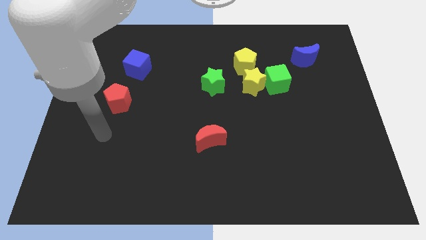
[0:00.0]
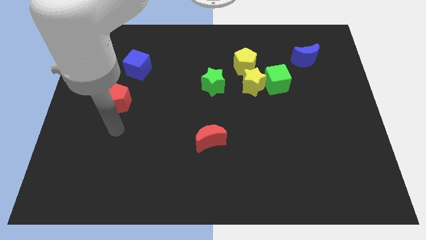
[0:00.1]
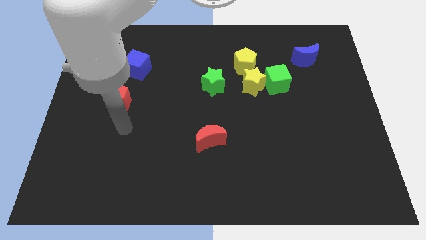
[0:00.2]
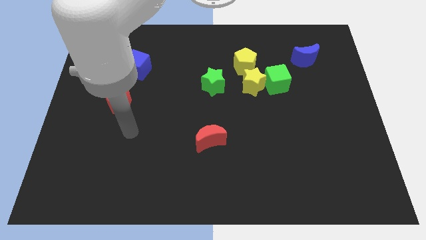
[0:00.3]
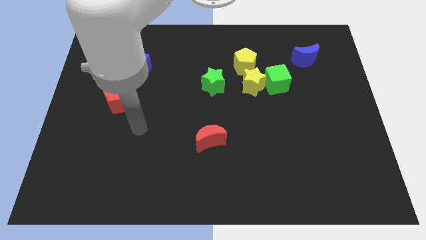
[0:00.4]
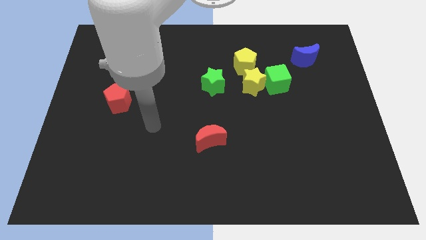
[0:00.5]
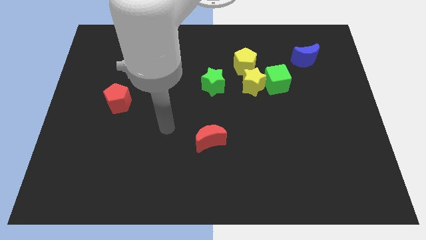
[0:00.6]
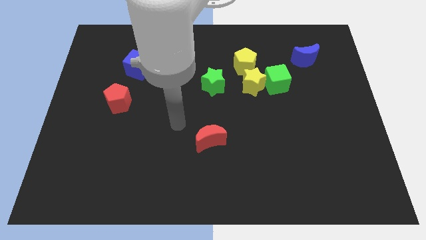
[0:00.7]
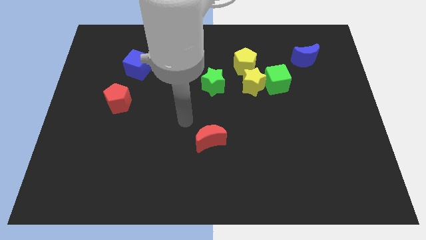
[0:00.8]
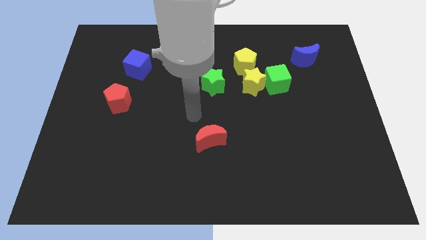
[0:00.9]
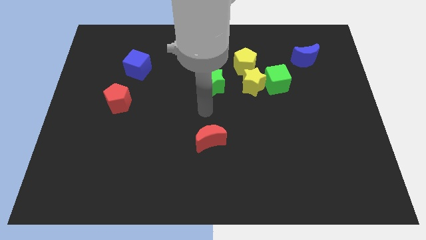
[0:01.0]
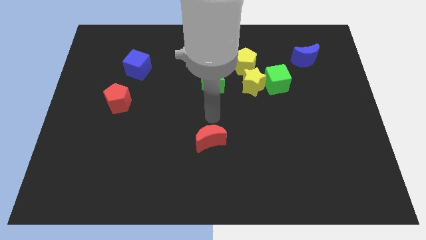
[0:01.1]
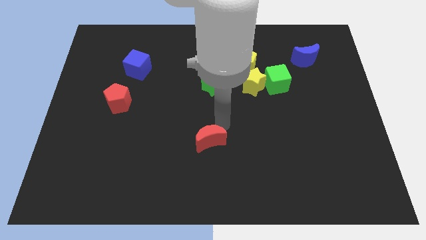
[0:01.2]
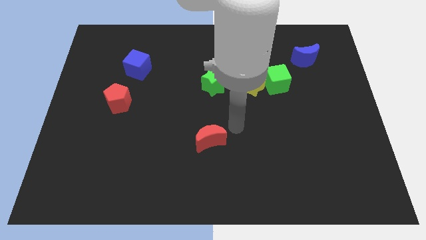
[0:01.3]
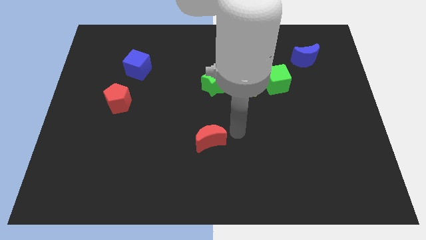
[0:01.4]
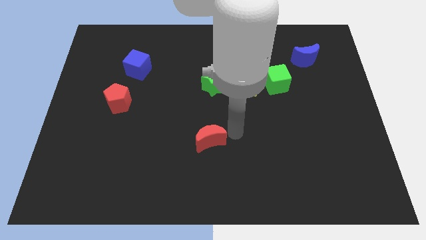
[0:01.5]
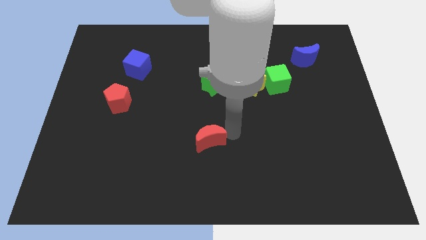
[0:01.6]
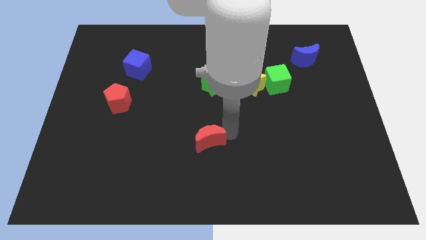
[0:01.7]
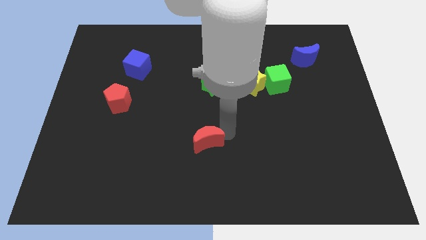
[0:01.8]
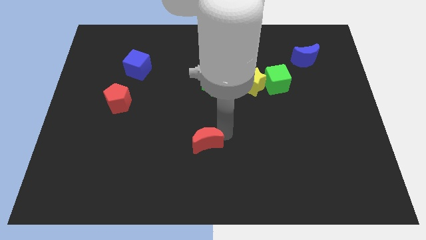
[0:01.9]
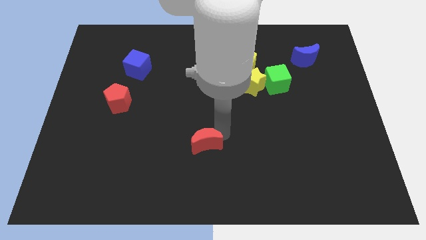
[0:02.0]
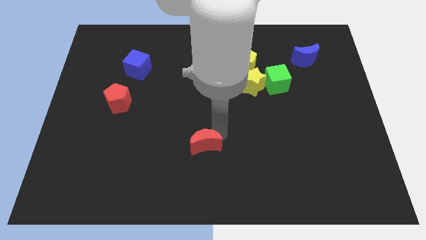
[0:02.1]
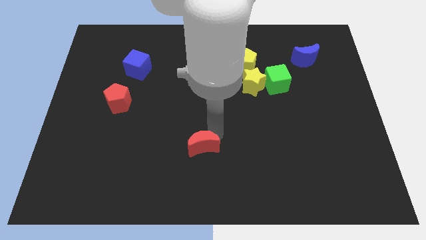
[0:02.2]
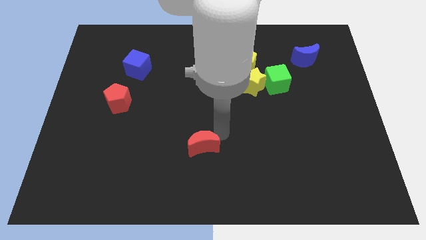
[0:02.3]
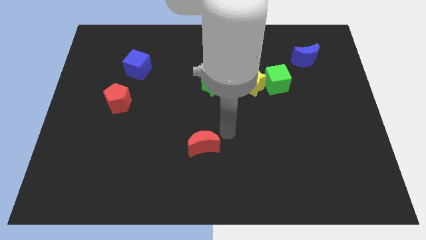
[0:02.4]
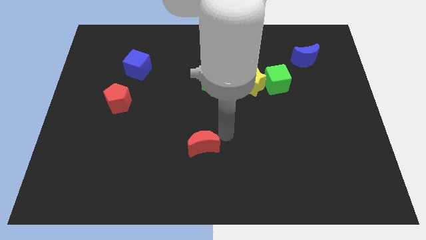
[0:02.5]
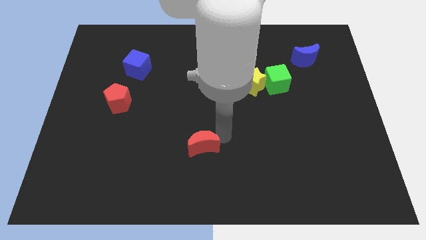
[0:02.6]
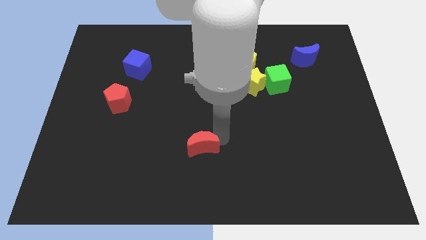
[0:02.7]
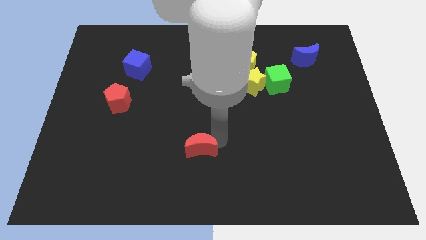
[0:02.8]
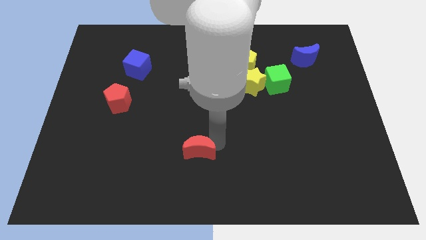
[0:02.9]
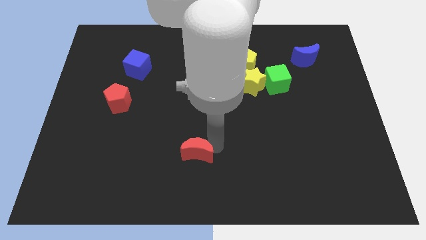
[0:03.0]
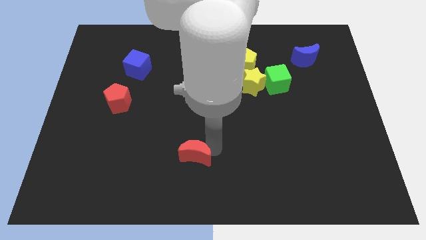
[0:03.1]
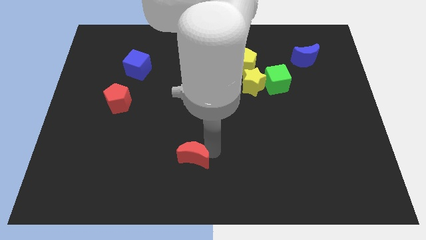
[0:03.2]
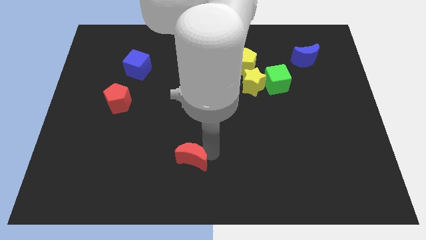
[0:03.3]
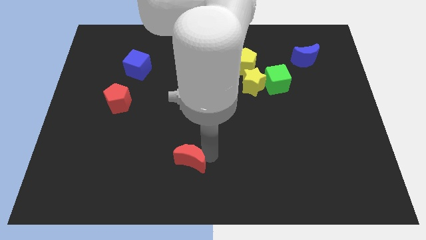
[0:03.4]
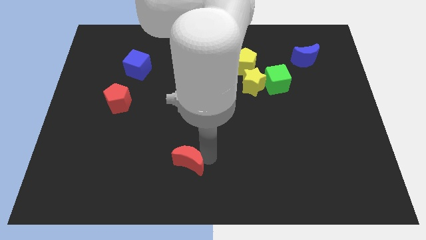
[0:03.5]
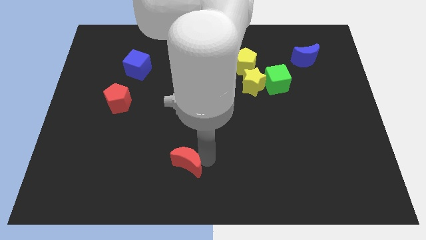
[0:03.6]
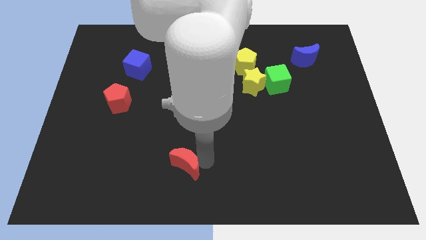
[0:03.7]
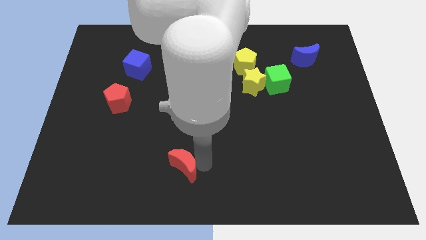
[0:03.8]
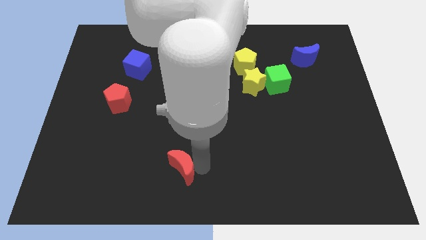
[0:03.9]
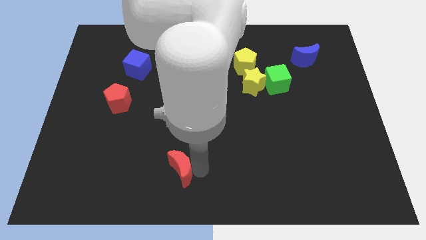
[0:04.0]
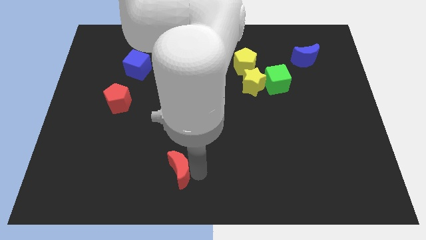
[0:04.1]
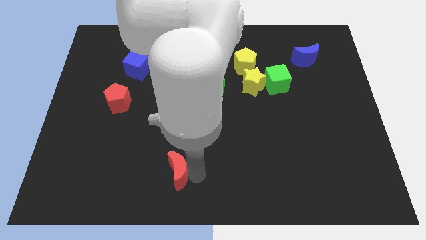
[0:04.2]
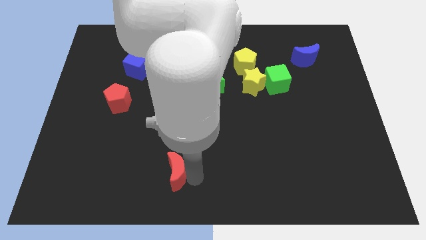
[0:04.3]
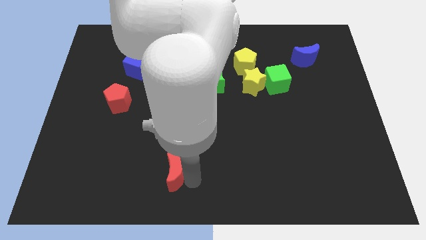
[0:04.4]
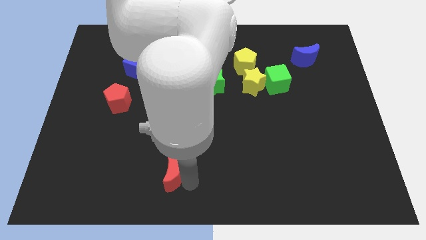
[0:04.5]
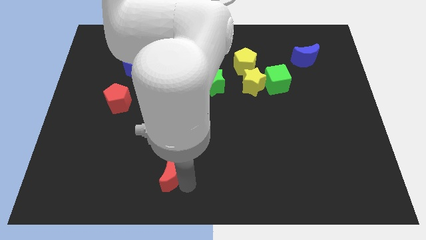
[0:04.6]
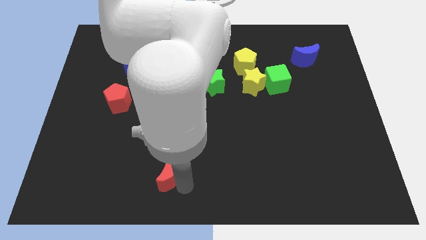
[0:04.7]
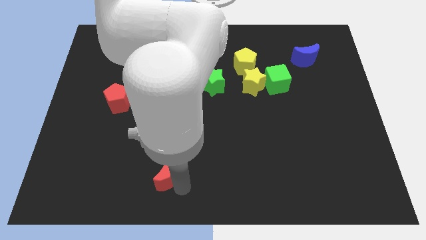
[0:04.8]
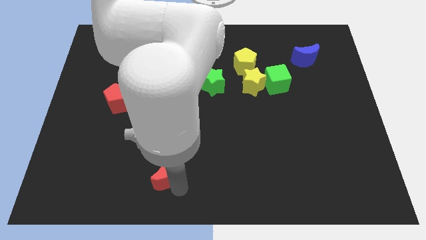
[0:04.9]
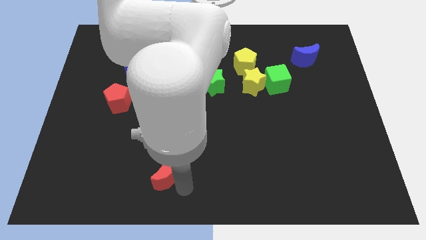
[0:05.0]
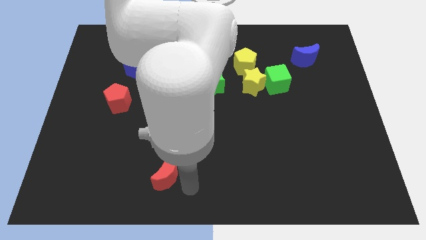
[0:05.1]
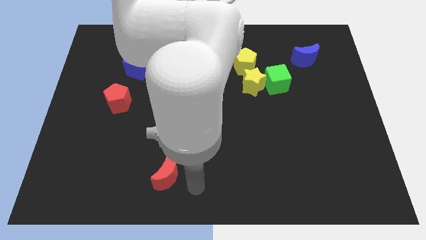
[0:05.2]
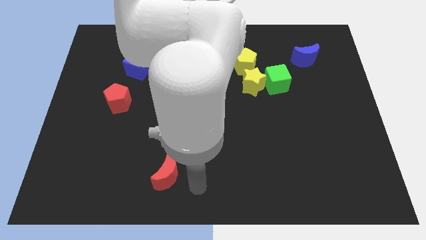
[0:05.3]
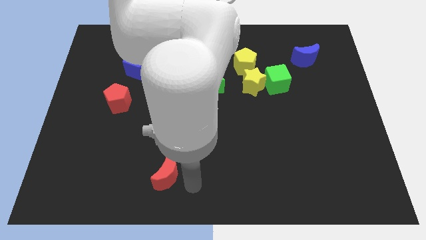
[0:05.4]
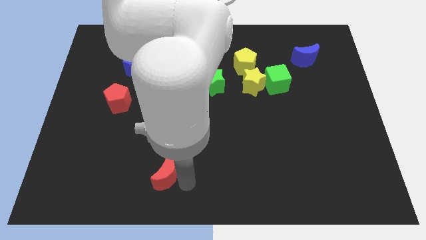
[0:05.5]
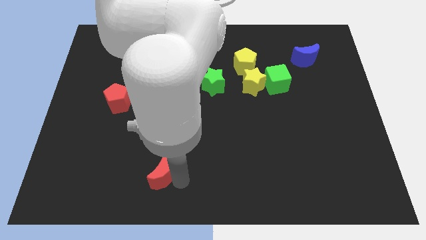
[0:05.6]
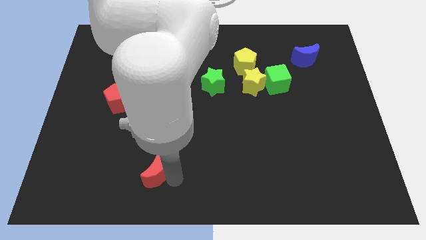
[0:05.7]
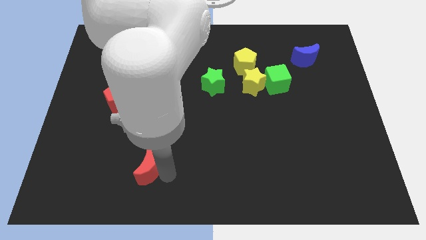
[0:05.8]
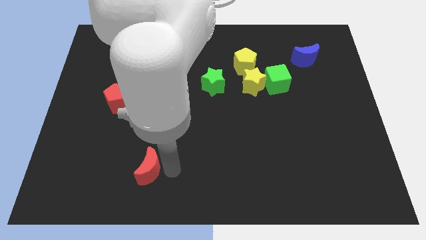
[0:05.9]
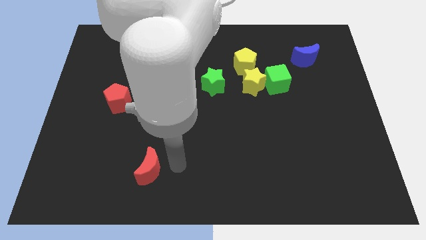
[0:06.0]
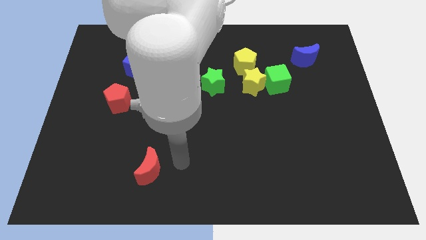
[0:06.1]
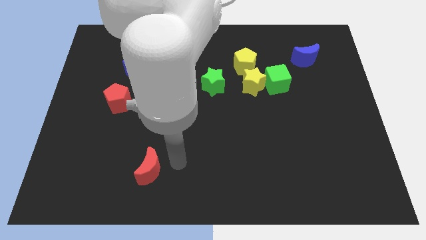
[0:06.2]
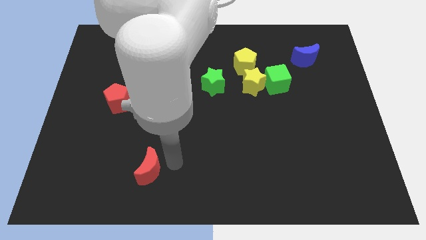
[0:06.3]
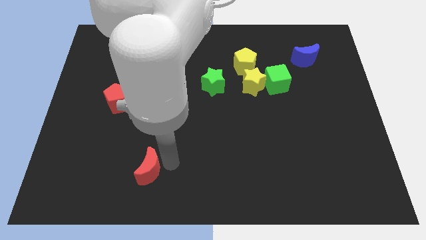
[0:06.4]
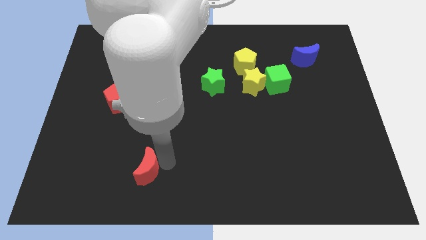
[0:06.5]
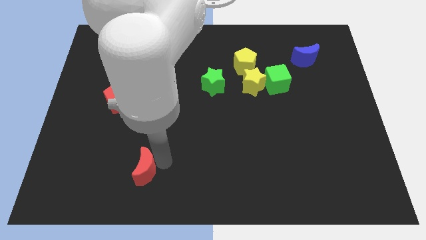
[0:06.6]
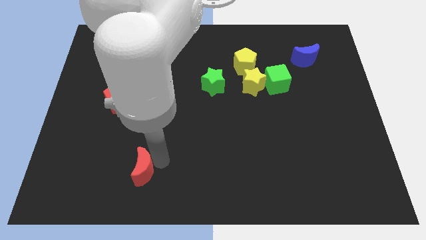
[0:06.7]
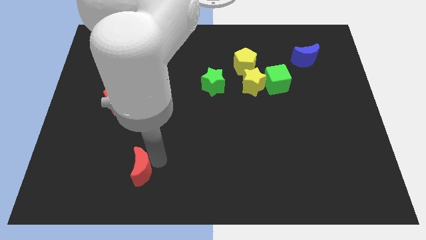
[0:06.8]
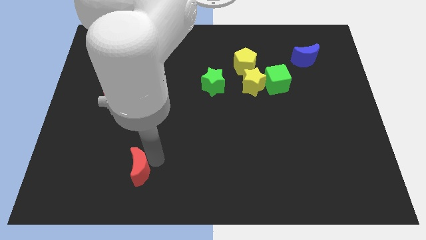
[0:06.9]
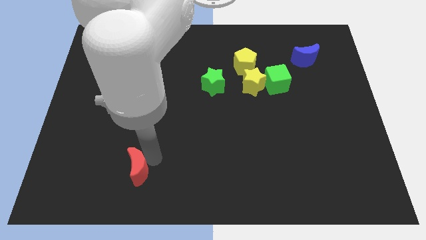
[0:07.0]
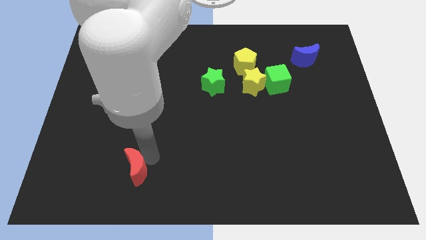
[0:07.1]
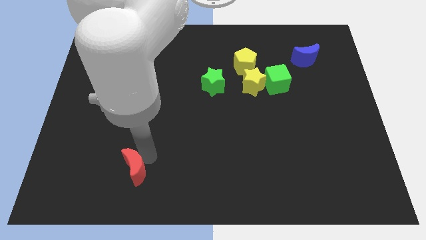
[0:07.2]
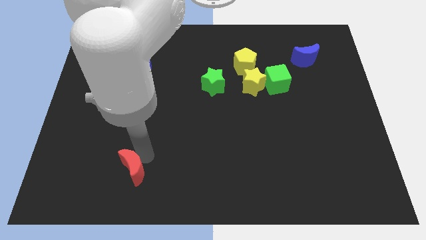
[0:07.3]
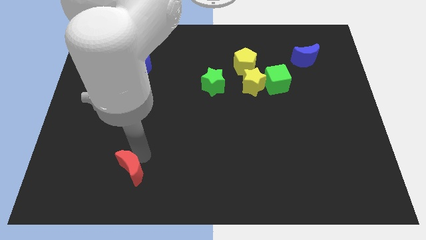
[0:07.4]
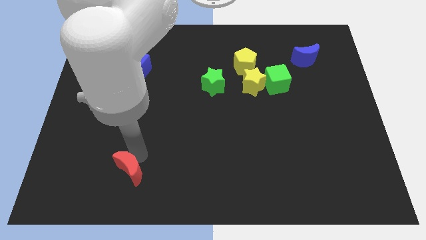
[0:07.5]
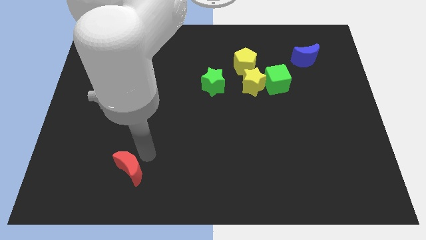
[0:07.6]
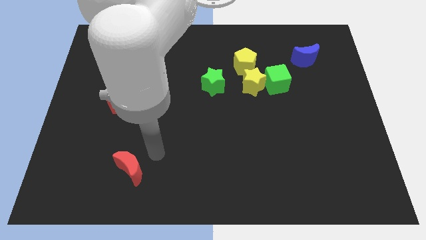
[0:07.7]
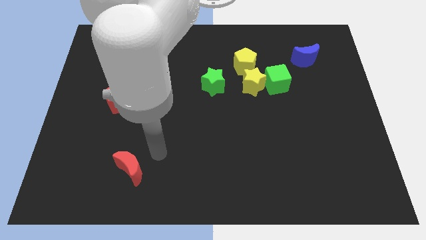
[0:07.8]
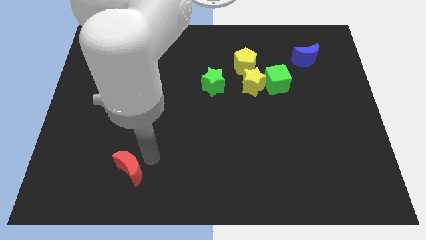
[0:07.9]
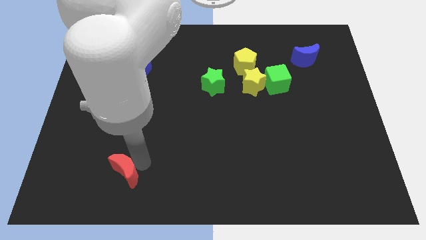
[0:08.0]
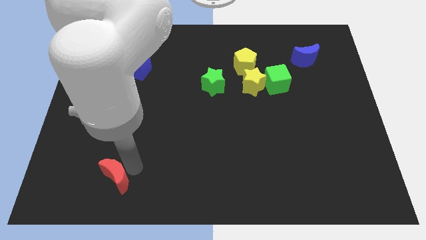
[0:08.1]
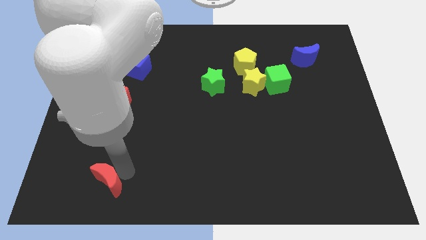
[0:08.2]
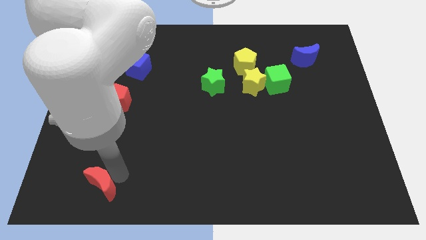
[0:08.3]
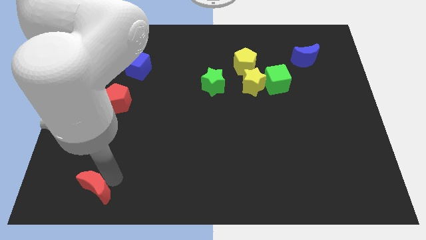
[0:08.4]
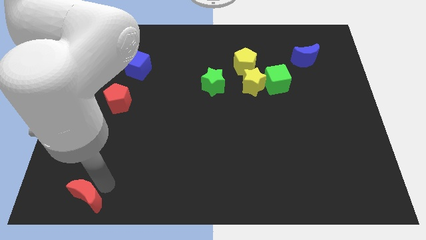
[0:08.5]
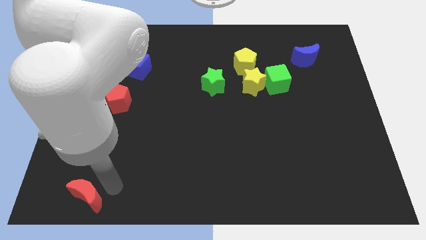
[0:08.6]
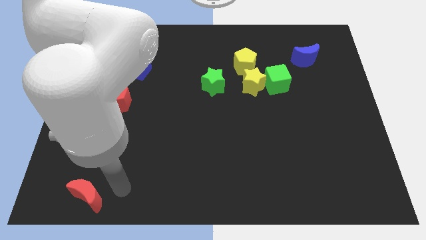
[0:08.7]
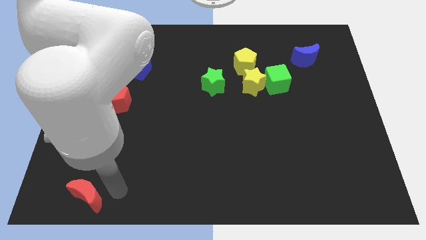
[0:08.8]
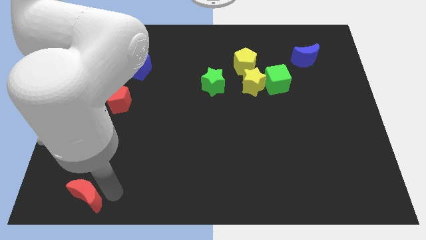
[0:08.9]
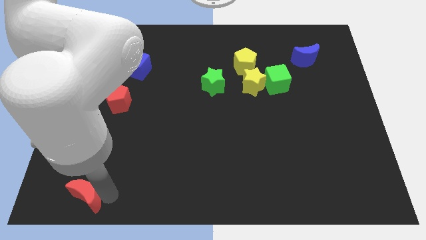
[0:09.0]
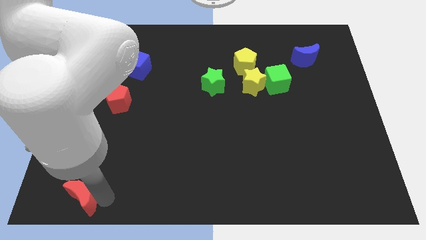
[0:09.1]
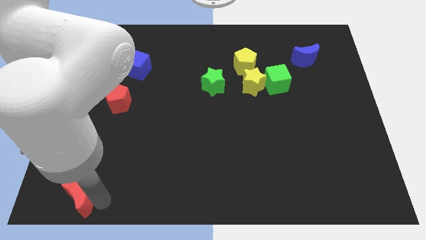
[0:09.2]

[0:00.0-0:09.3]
push the red moon to the bottom left
